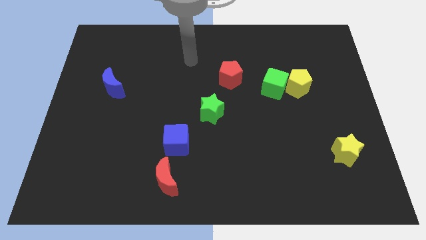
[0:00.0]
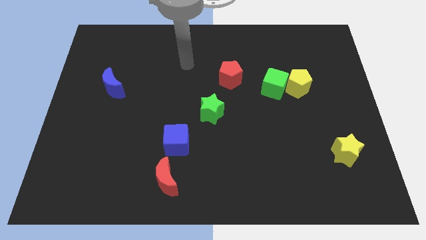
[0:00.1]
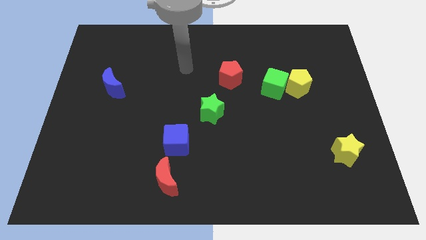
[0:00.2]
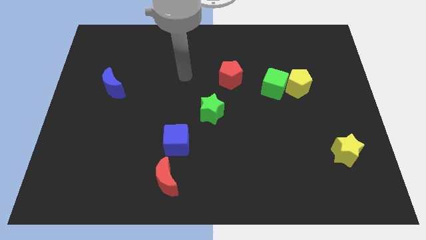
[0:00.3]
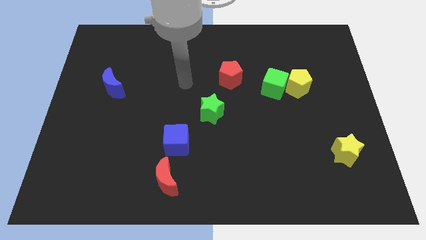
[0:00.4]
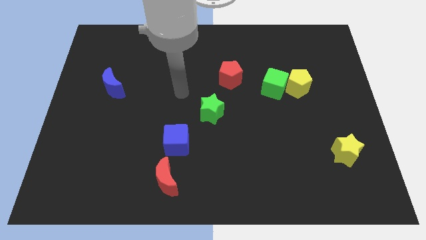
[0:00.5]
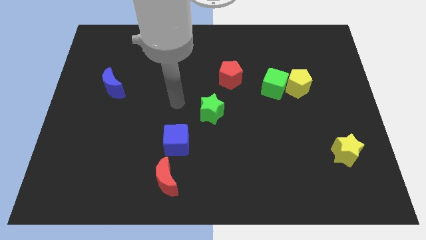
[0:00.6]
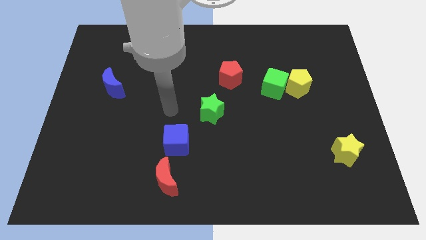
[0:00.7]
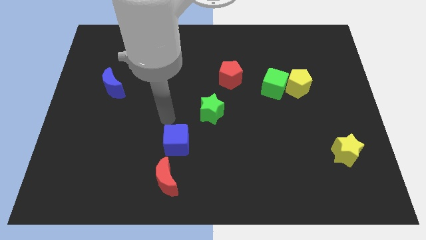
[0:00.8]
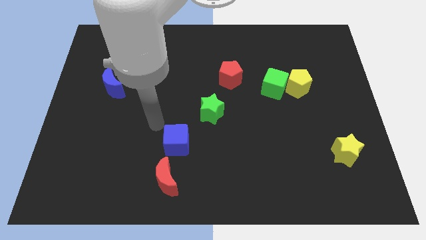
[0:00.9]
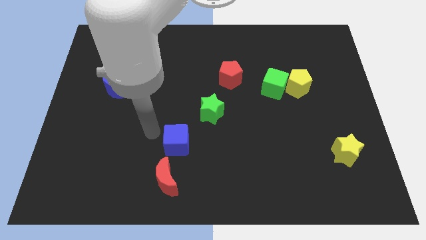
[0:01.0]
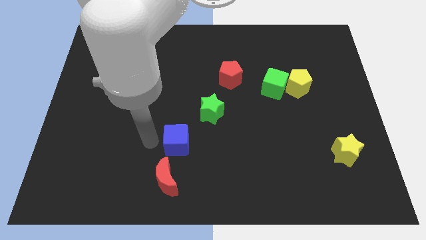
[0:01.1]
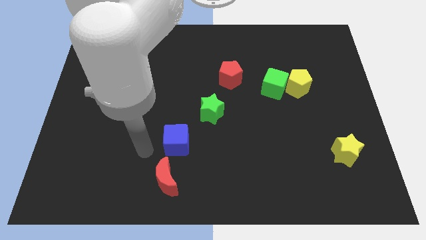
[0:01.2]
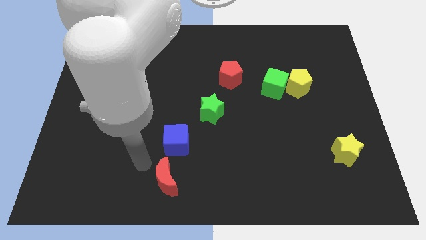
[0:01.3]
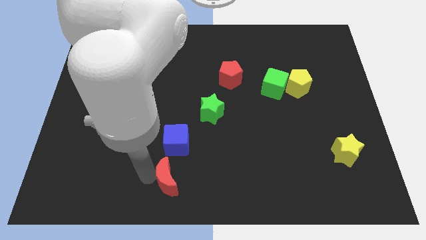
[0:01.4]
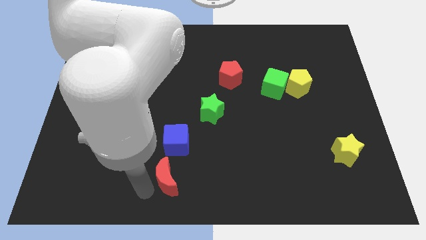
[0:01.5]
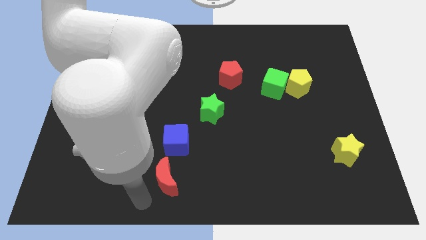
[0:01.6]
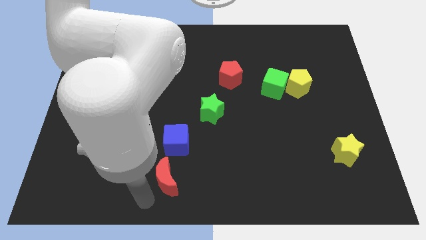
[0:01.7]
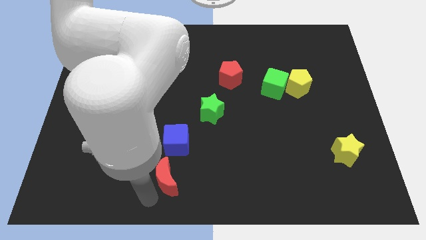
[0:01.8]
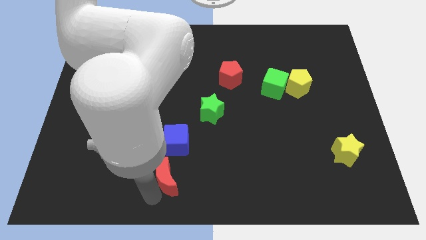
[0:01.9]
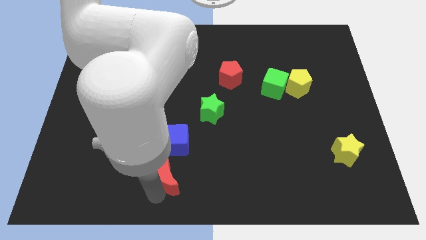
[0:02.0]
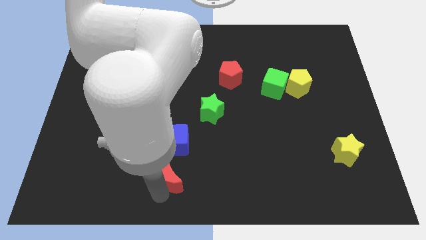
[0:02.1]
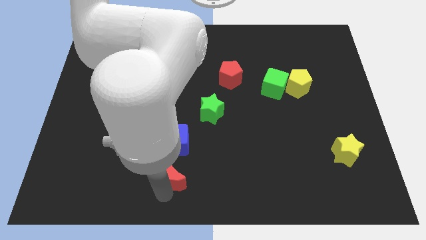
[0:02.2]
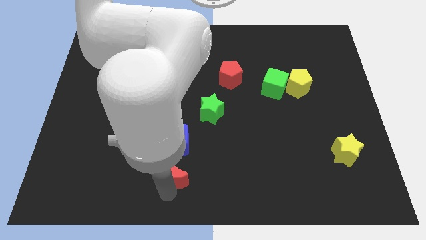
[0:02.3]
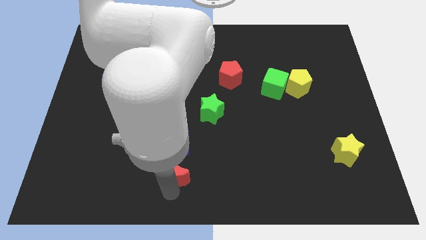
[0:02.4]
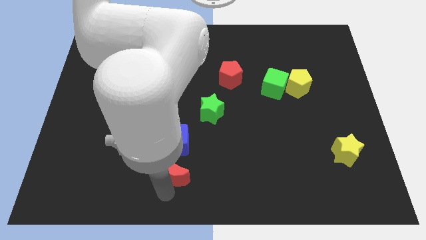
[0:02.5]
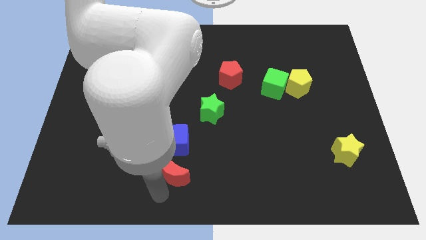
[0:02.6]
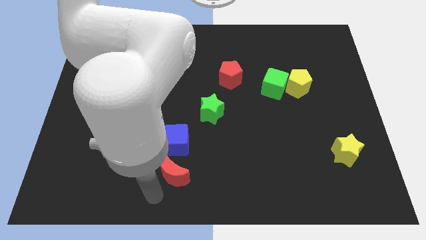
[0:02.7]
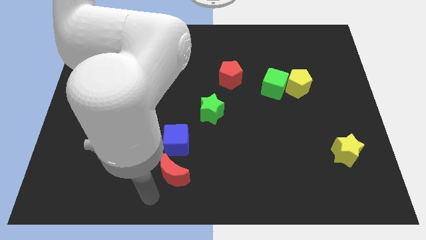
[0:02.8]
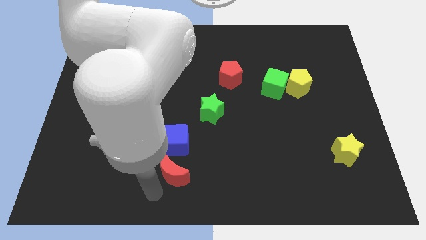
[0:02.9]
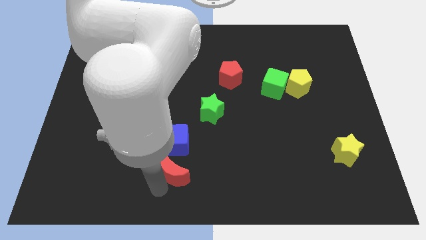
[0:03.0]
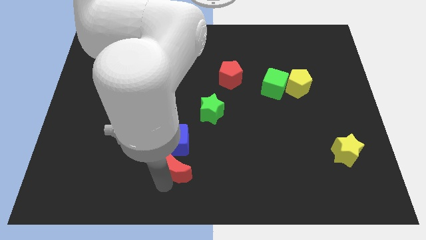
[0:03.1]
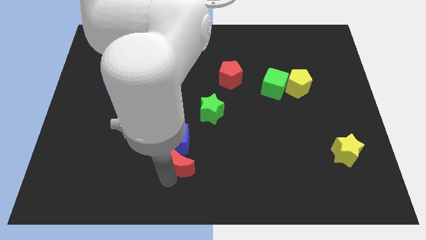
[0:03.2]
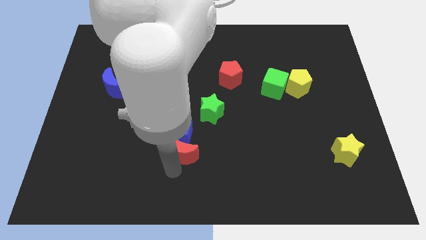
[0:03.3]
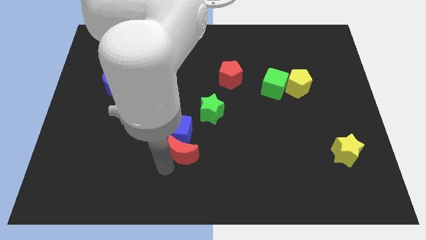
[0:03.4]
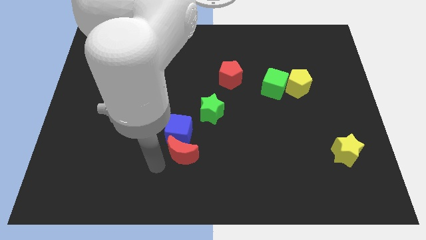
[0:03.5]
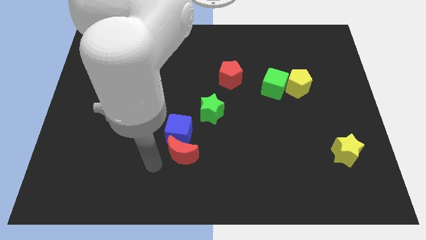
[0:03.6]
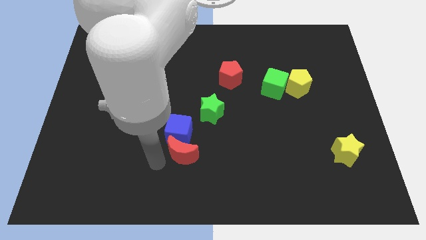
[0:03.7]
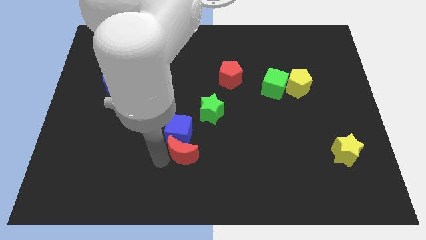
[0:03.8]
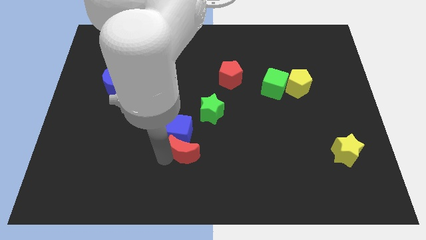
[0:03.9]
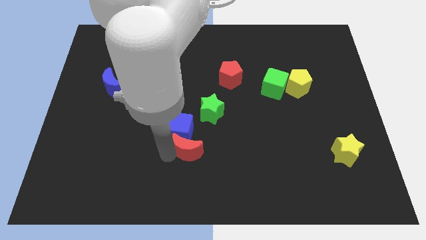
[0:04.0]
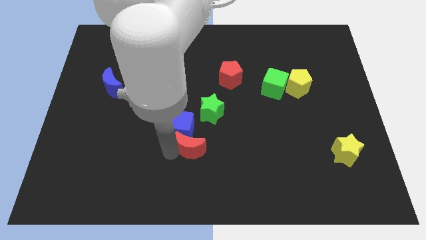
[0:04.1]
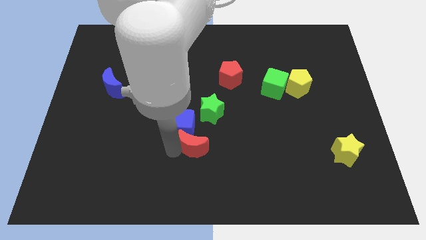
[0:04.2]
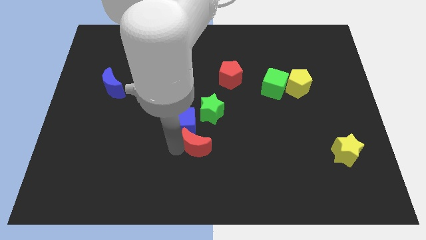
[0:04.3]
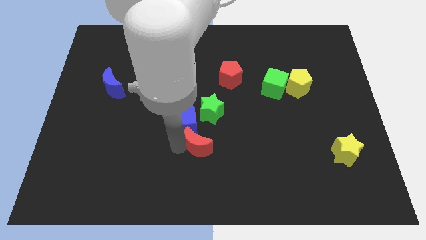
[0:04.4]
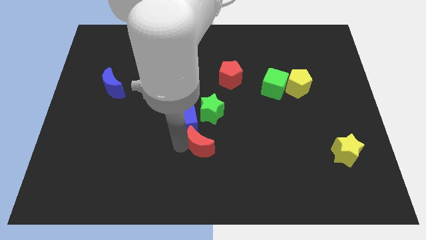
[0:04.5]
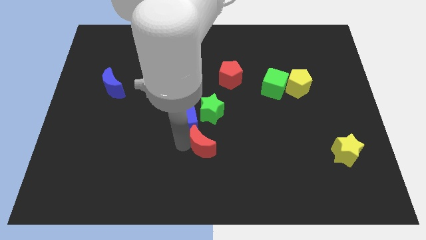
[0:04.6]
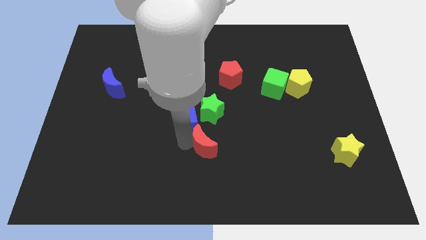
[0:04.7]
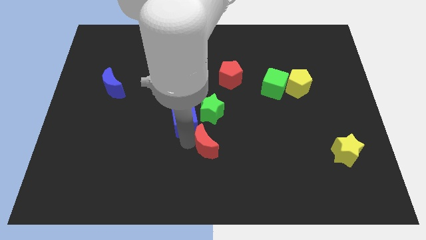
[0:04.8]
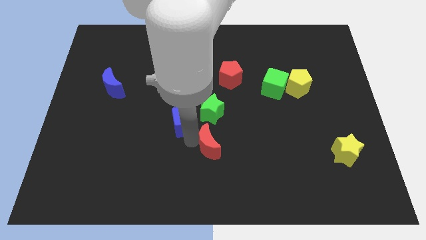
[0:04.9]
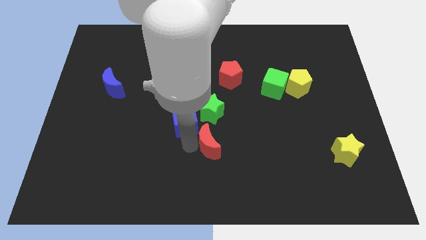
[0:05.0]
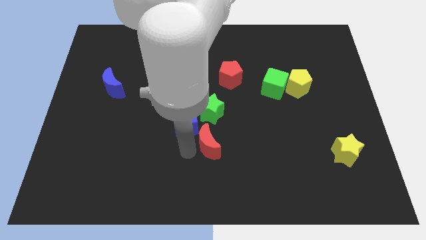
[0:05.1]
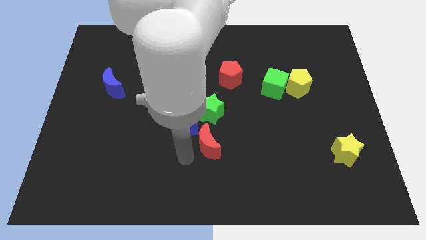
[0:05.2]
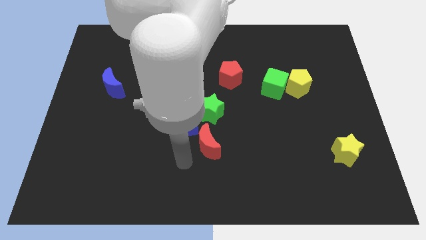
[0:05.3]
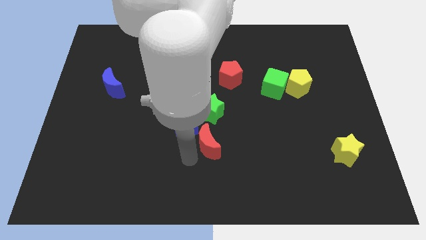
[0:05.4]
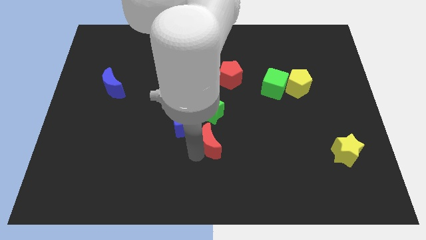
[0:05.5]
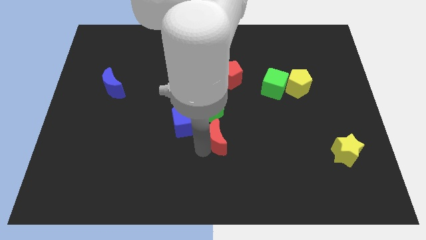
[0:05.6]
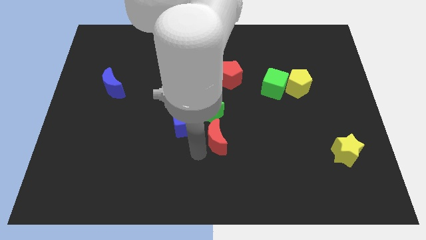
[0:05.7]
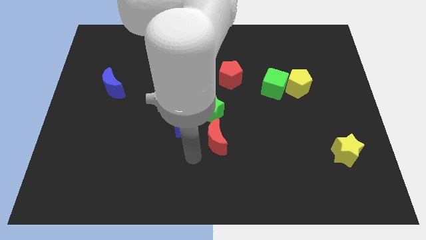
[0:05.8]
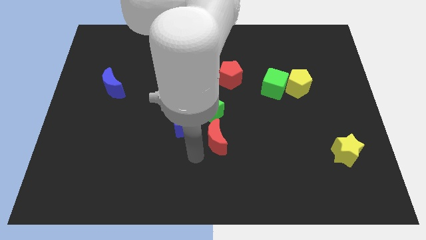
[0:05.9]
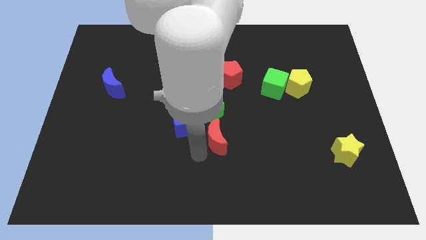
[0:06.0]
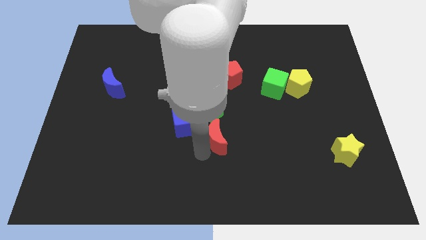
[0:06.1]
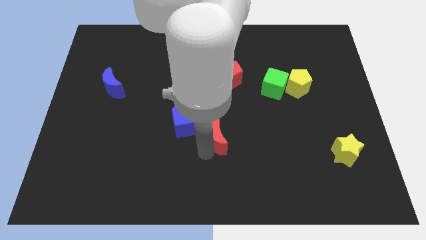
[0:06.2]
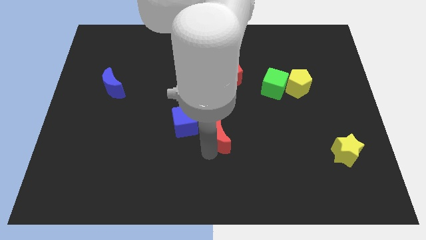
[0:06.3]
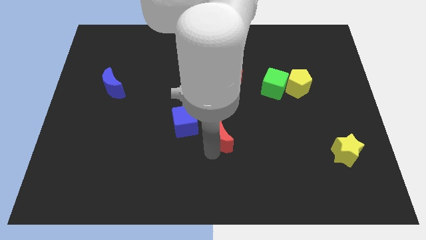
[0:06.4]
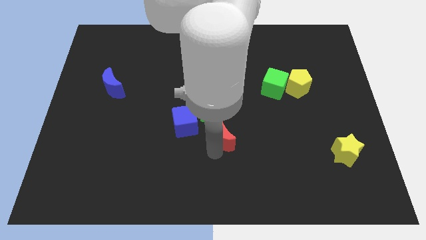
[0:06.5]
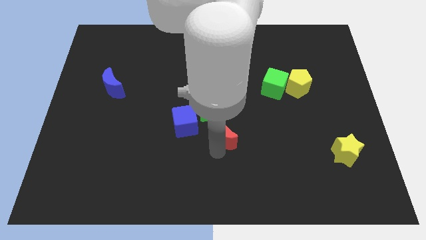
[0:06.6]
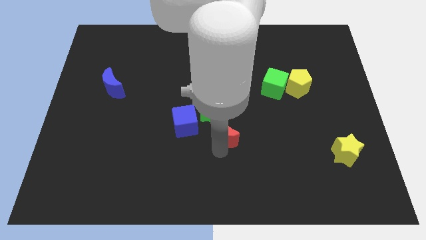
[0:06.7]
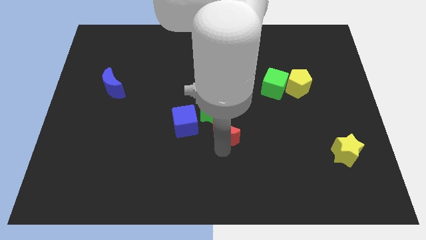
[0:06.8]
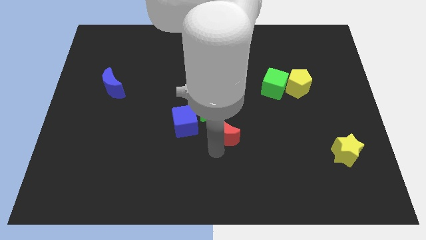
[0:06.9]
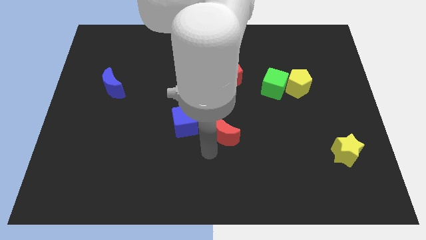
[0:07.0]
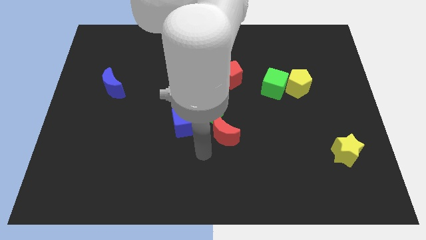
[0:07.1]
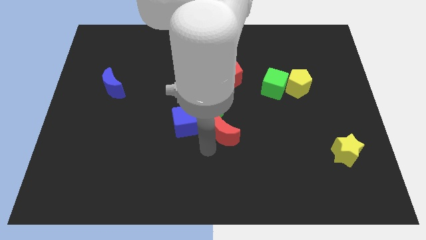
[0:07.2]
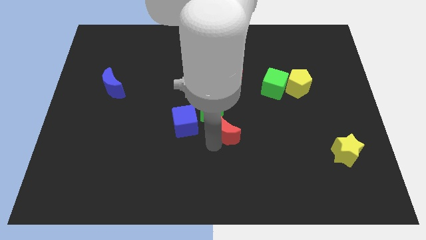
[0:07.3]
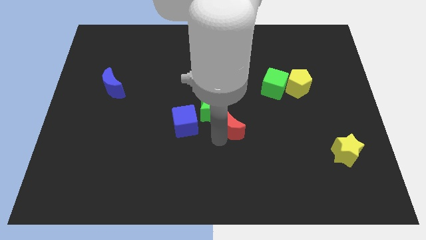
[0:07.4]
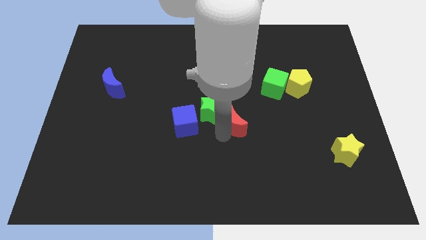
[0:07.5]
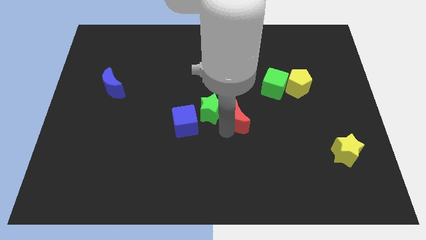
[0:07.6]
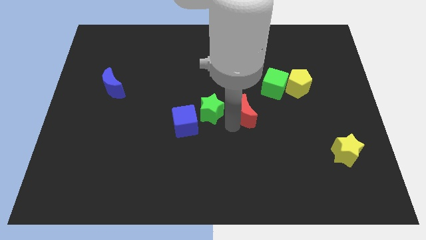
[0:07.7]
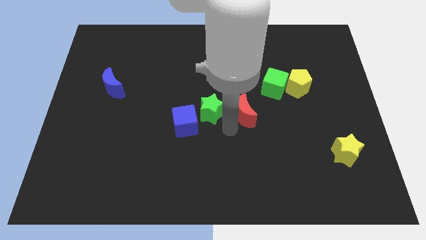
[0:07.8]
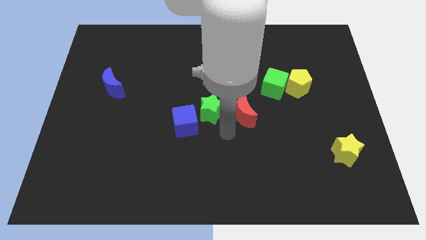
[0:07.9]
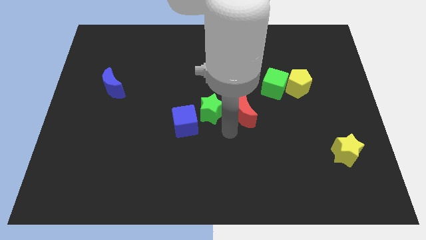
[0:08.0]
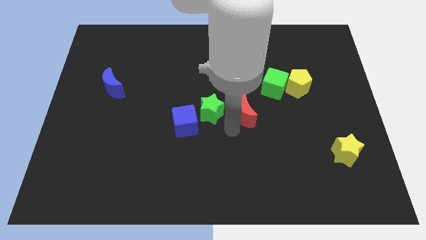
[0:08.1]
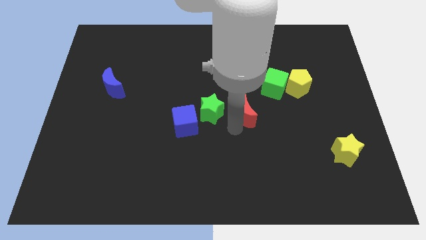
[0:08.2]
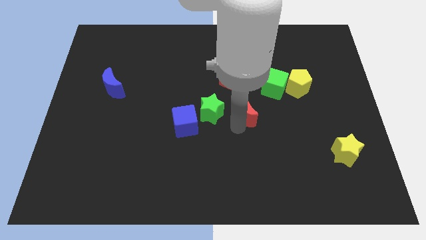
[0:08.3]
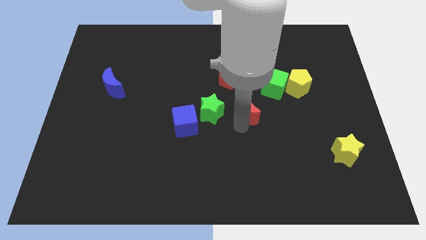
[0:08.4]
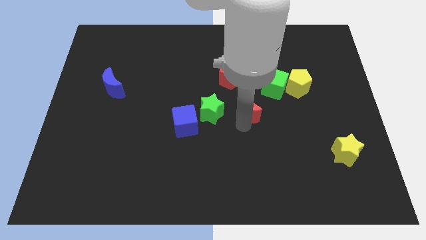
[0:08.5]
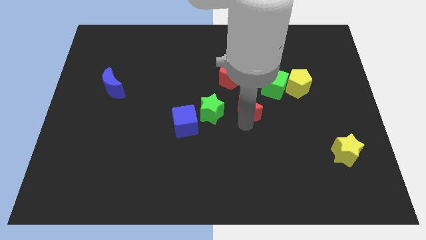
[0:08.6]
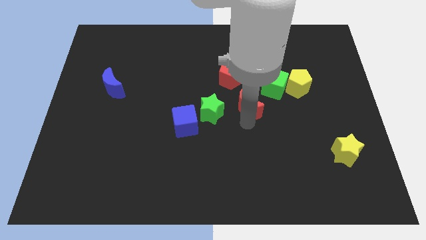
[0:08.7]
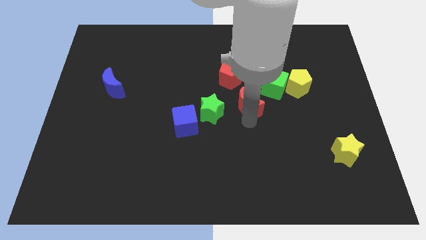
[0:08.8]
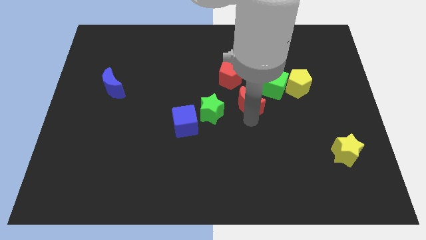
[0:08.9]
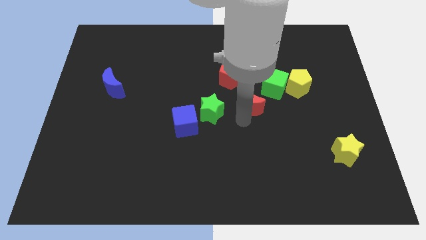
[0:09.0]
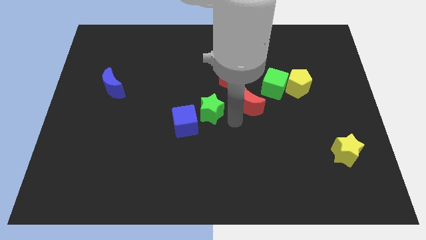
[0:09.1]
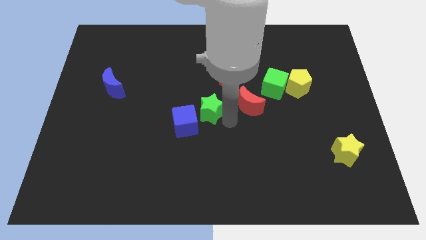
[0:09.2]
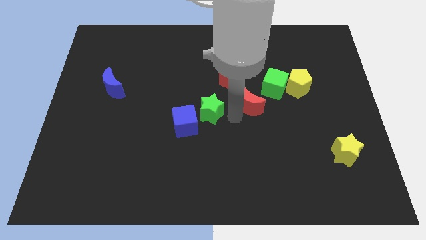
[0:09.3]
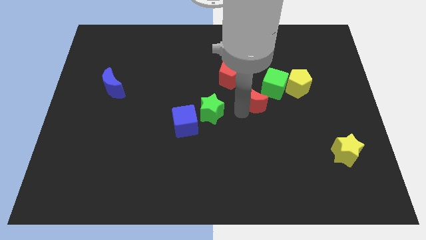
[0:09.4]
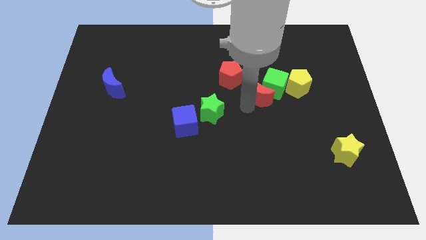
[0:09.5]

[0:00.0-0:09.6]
slide the red moon next to the green cube
